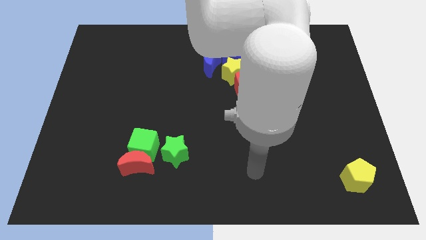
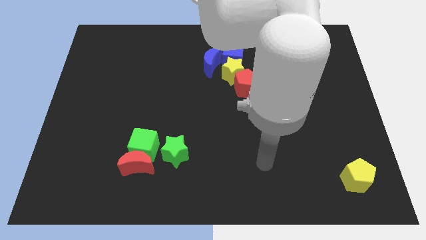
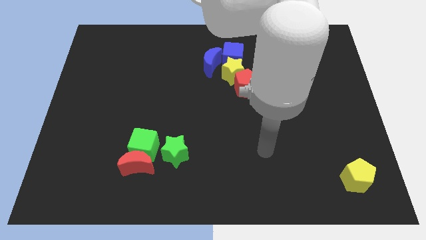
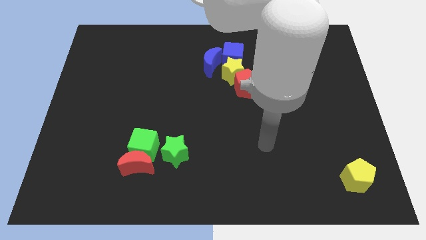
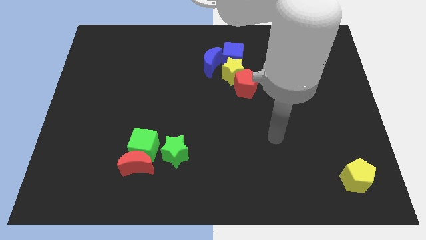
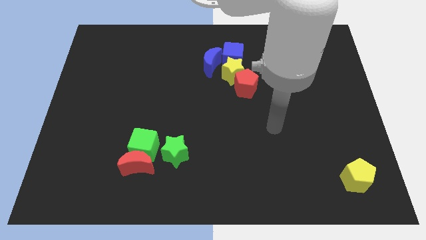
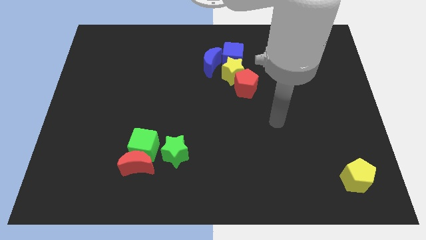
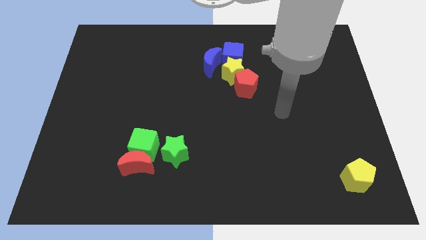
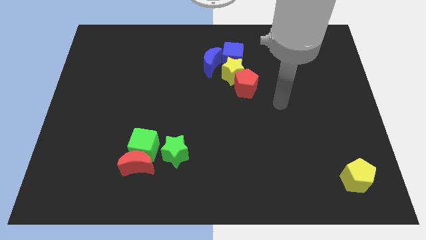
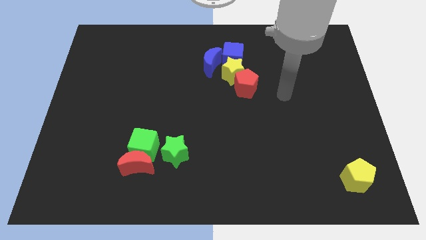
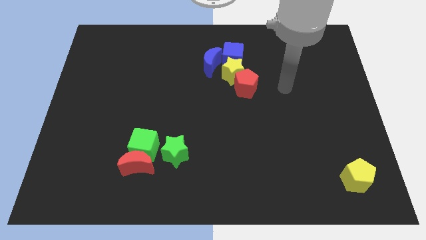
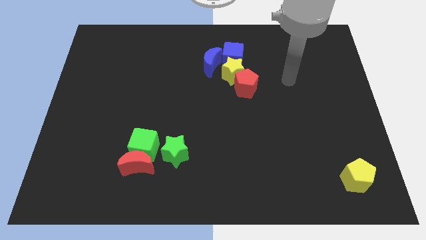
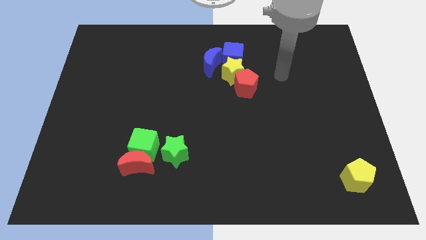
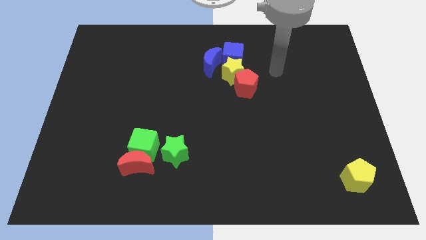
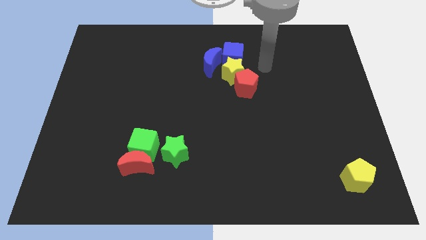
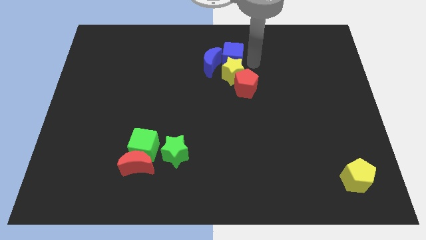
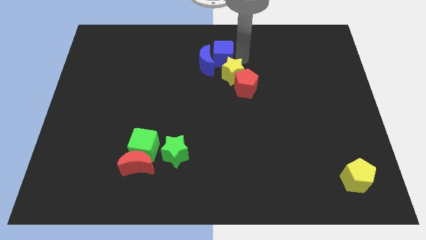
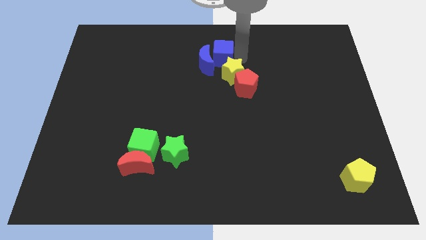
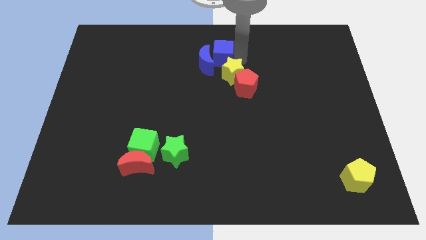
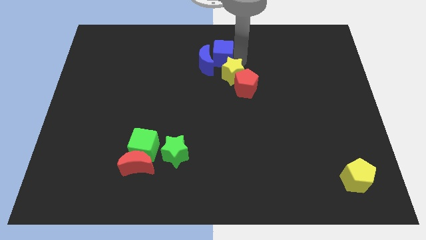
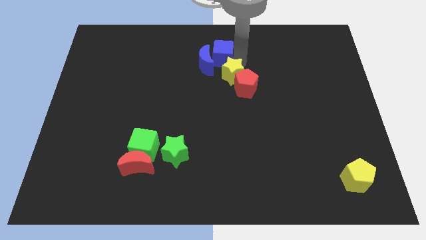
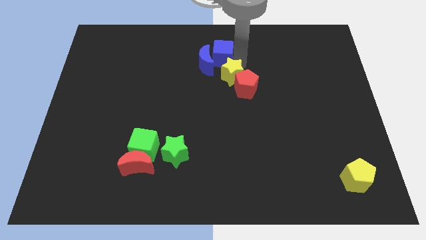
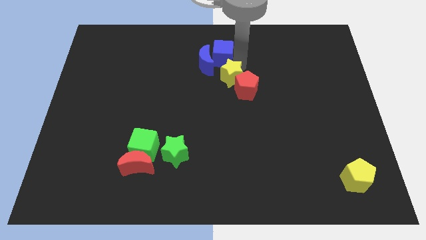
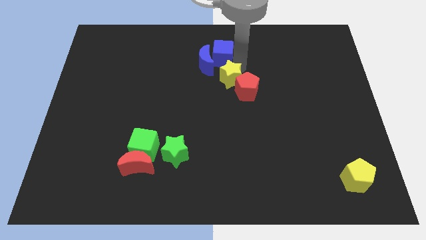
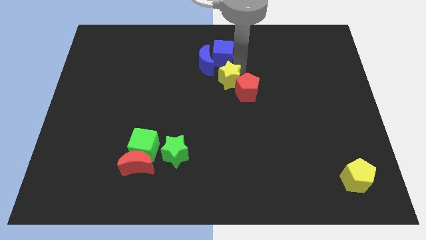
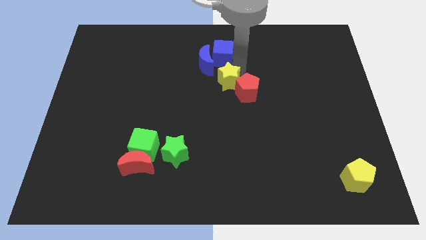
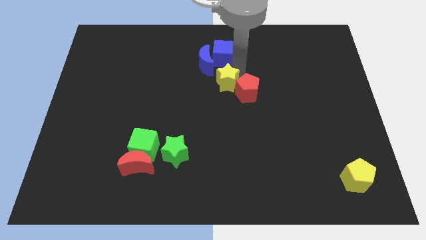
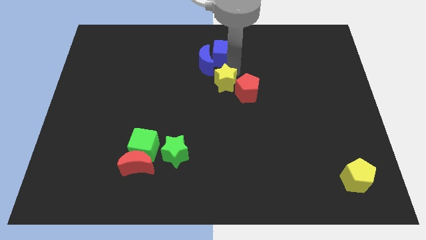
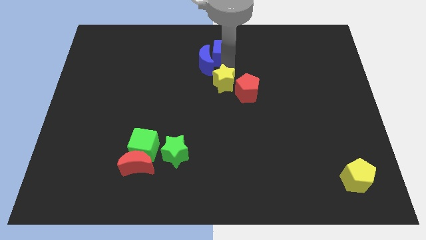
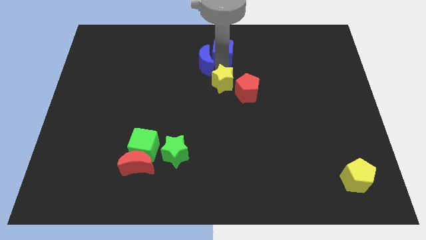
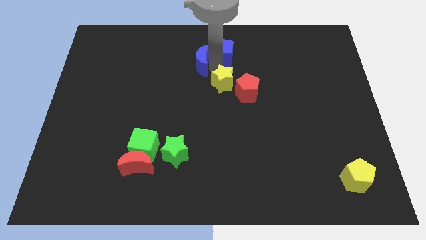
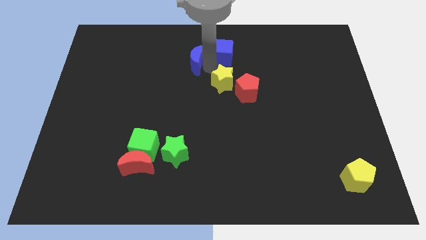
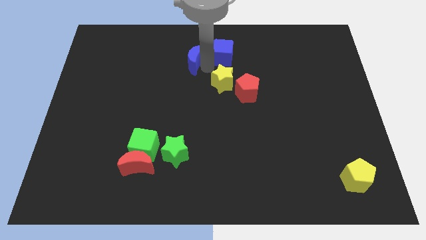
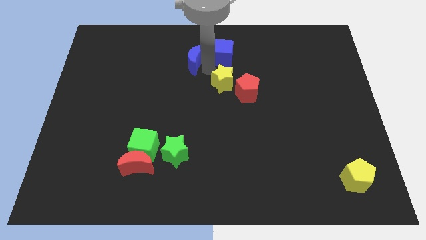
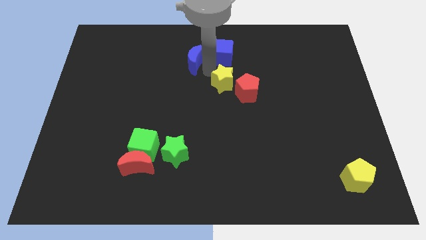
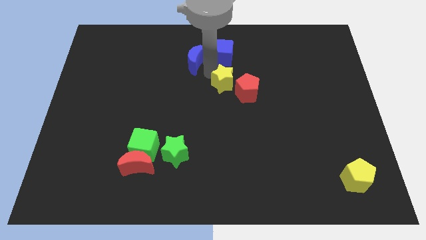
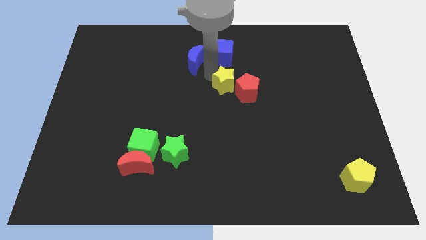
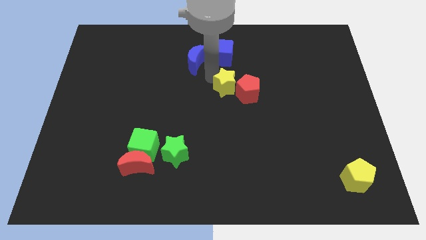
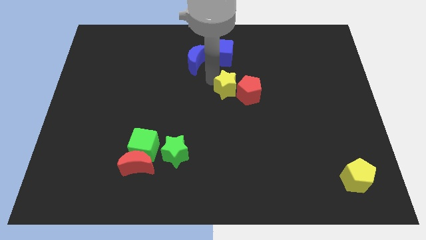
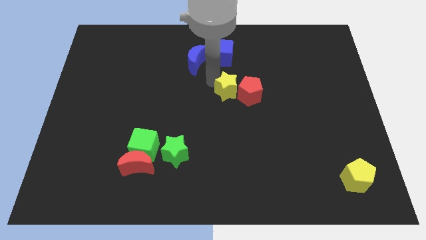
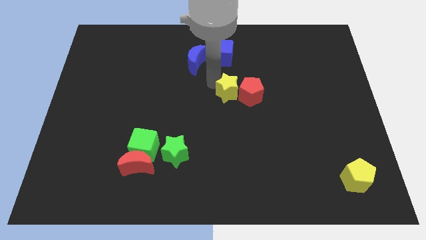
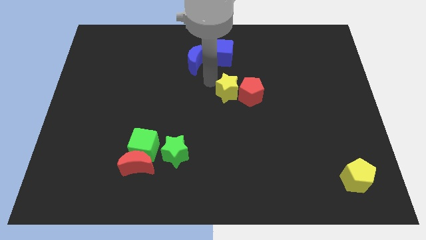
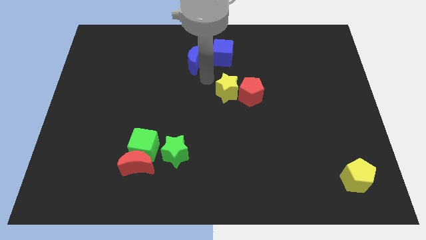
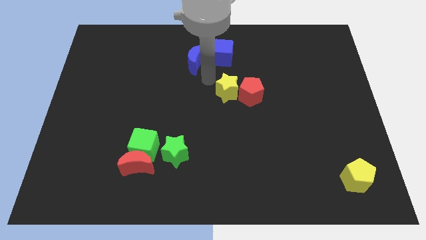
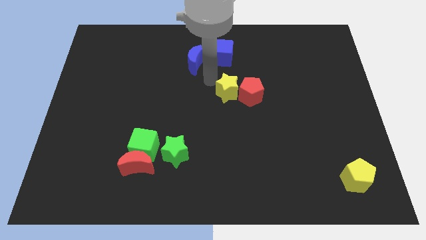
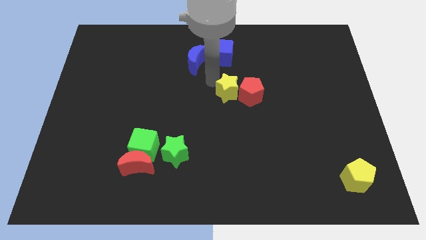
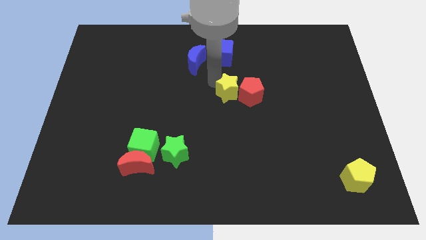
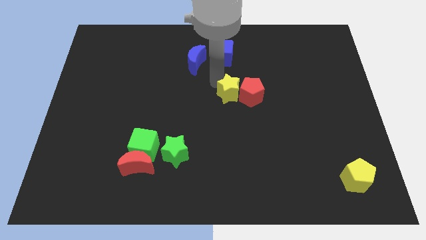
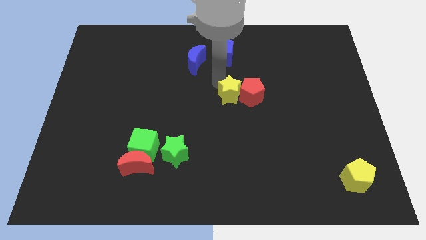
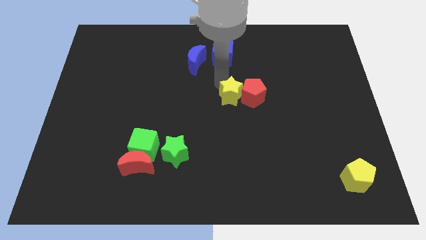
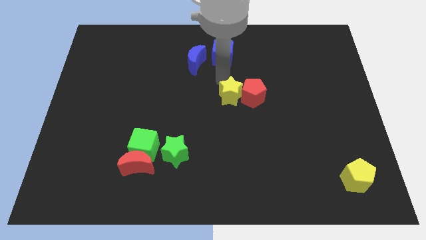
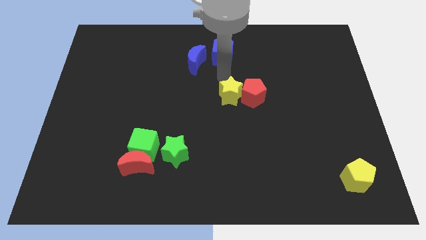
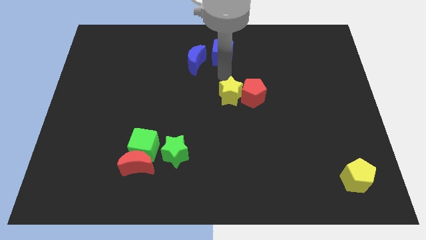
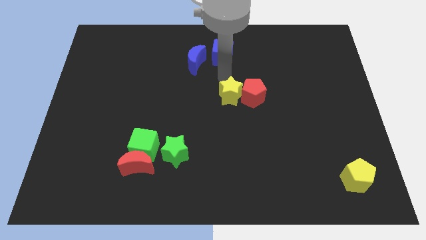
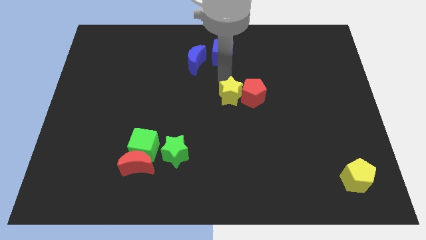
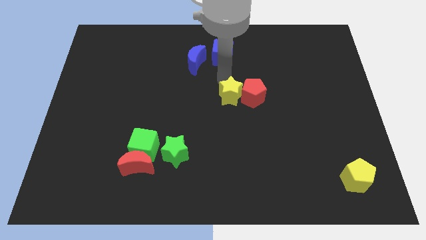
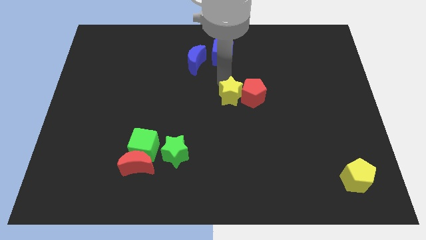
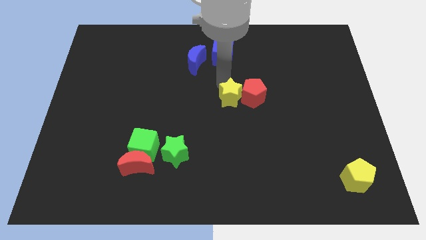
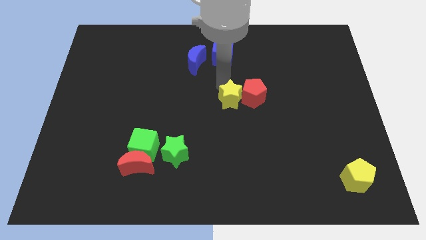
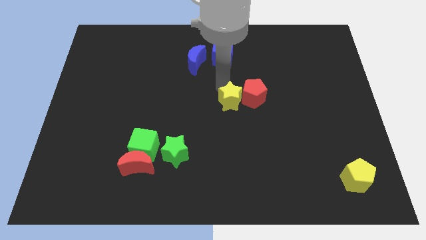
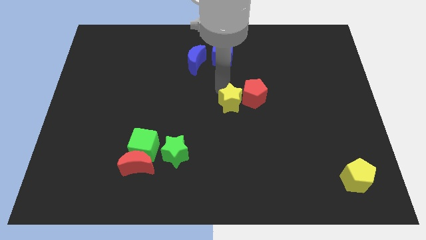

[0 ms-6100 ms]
separate the yellow star from the clump

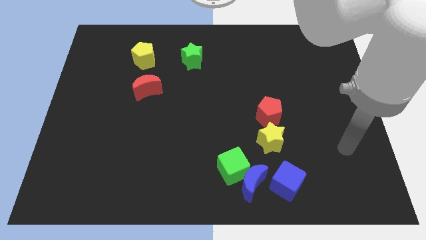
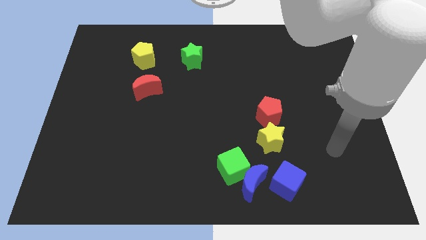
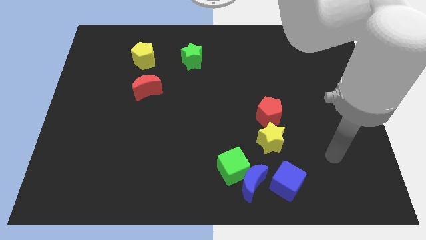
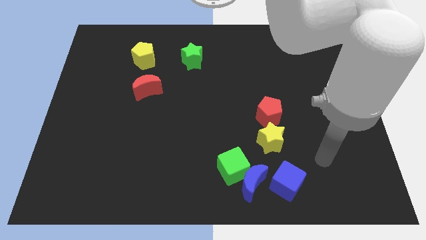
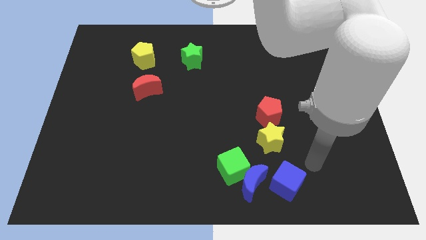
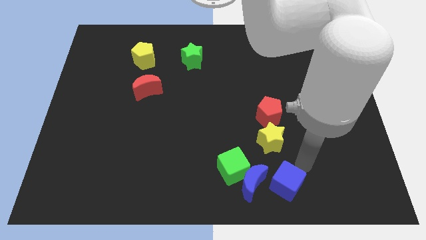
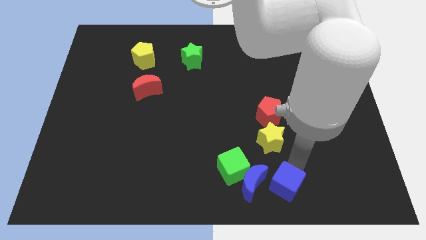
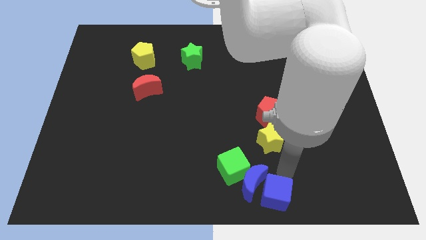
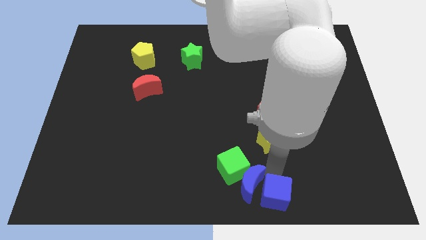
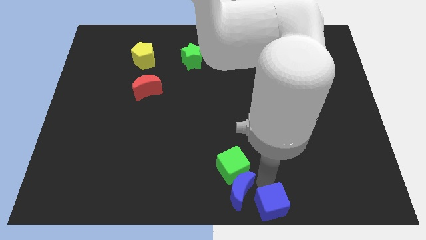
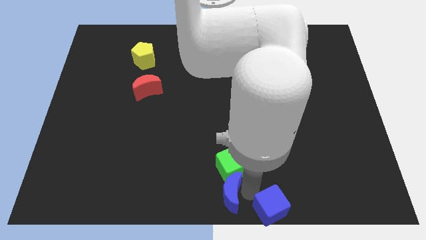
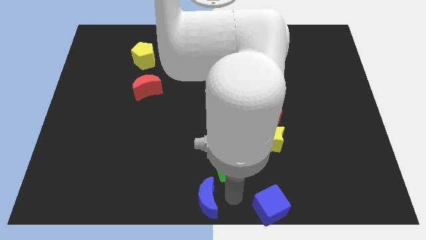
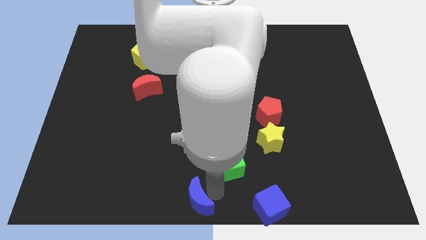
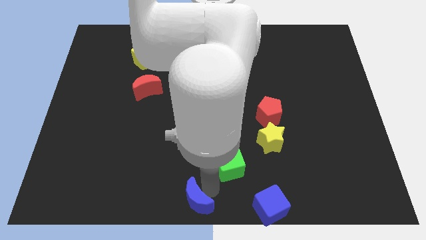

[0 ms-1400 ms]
separate the green cube from the blue moon

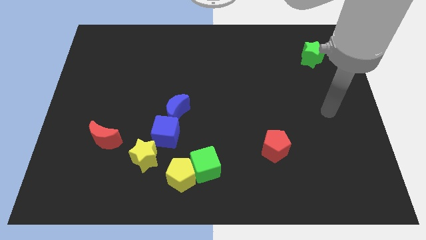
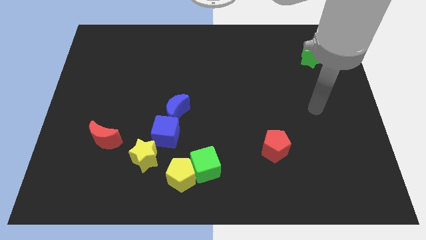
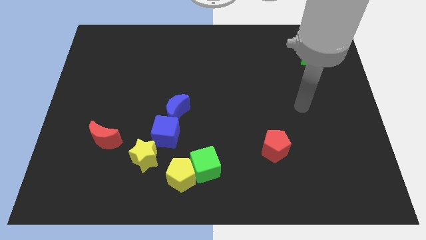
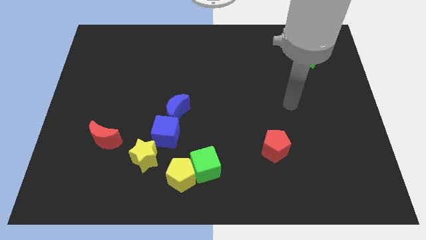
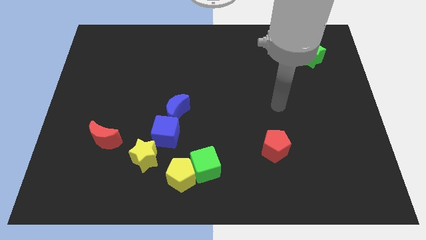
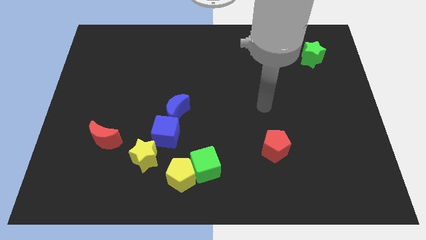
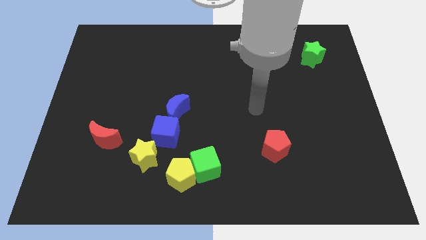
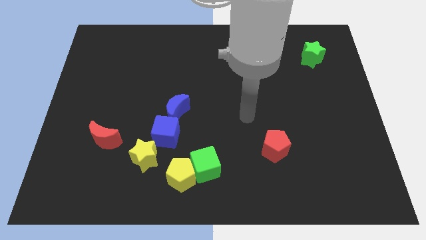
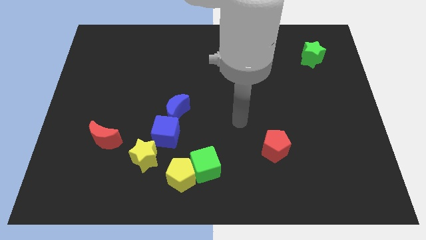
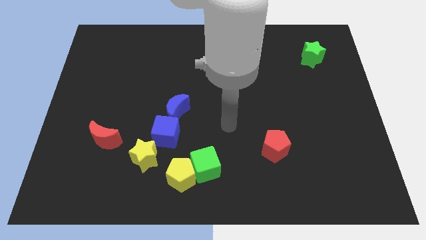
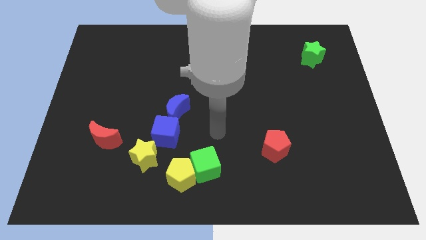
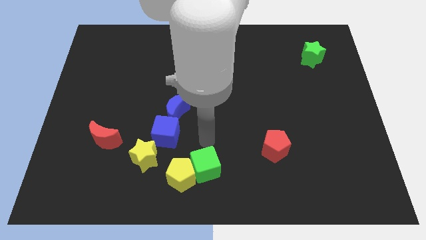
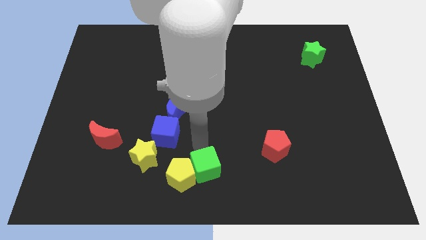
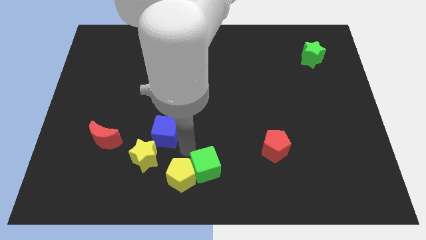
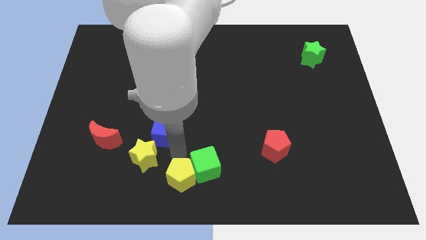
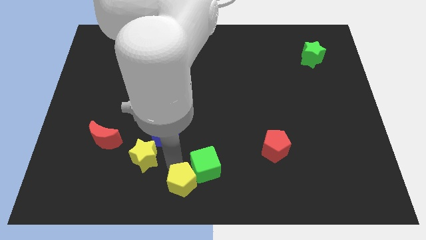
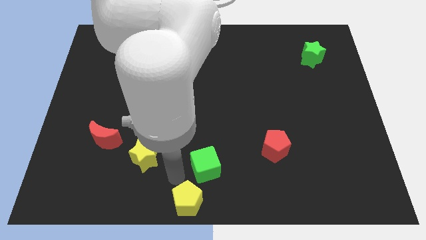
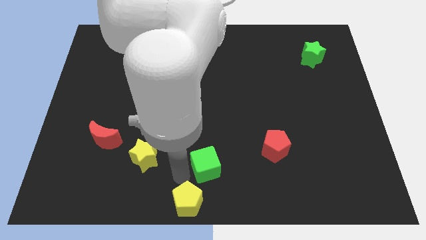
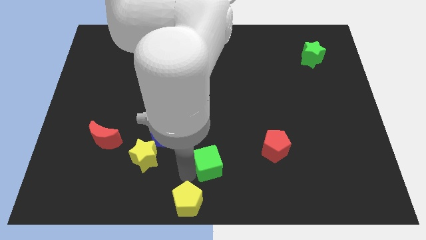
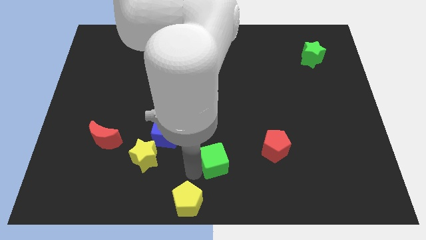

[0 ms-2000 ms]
pull the green cube apart from the yellow pentagon
